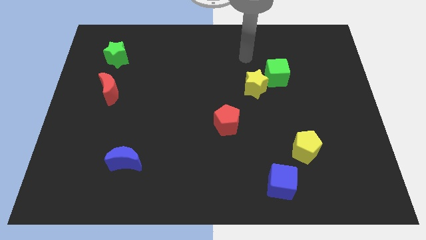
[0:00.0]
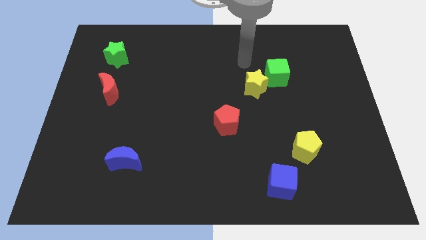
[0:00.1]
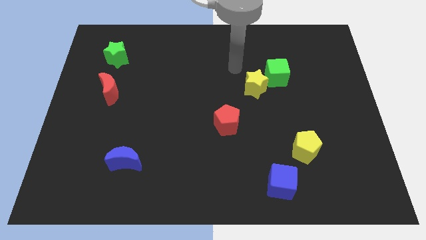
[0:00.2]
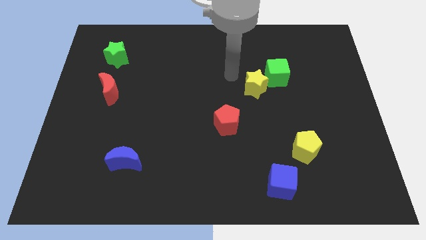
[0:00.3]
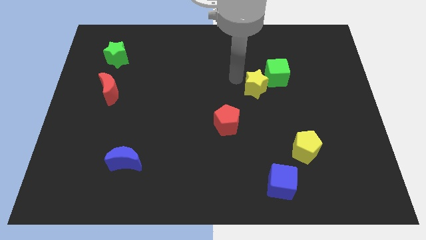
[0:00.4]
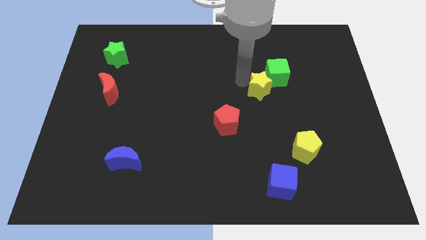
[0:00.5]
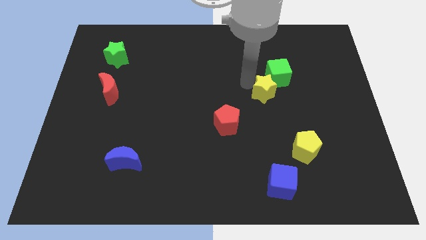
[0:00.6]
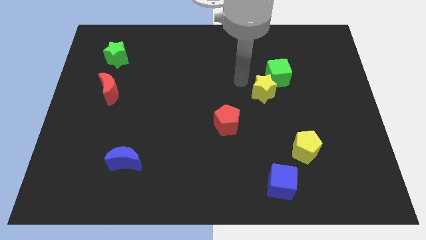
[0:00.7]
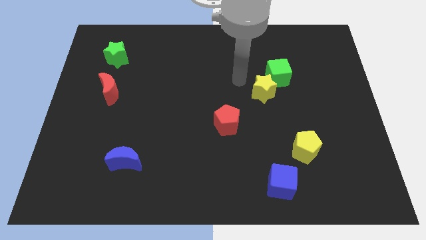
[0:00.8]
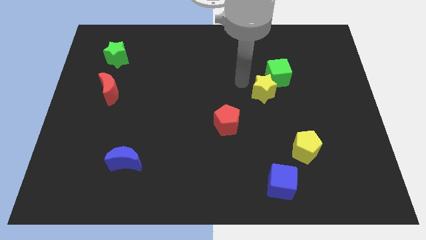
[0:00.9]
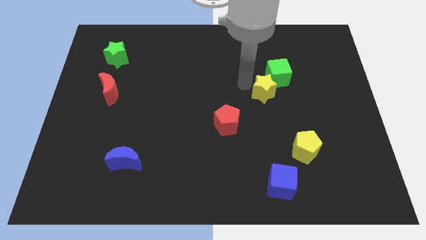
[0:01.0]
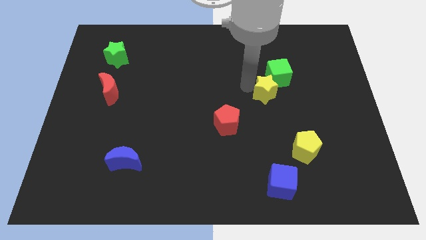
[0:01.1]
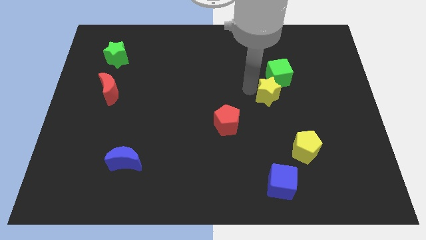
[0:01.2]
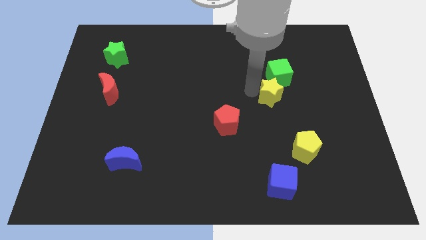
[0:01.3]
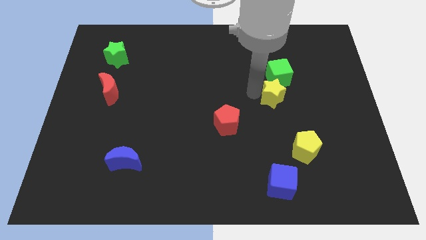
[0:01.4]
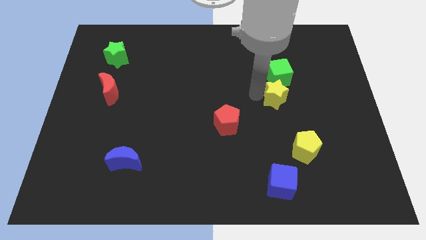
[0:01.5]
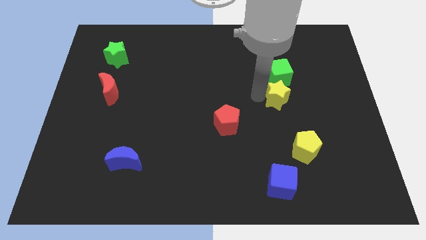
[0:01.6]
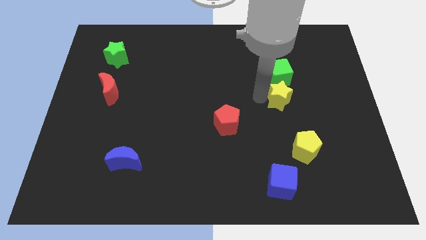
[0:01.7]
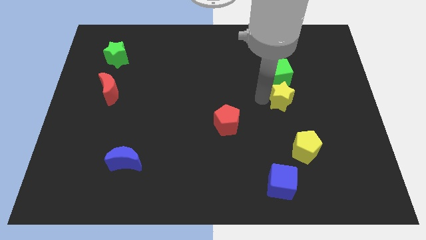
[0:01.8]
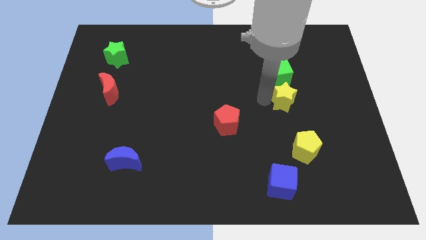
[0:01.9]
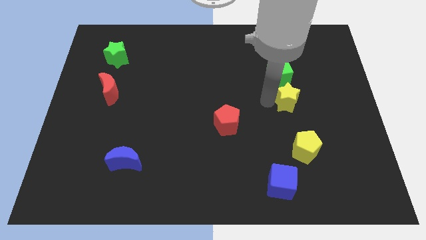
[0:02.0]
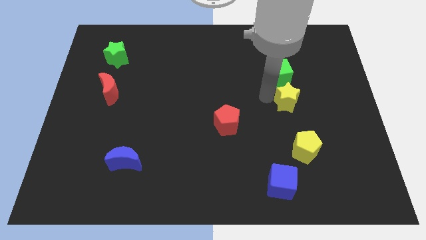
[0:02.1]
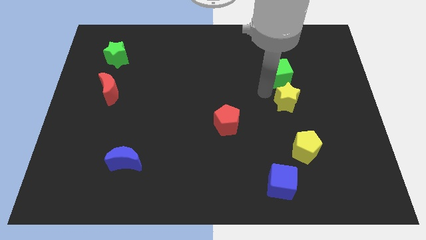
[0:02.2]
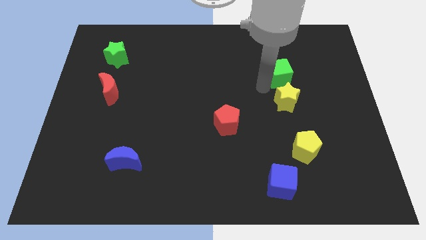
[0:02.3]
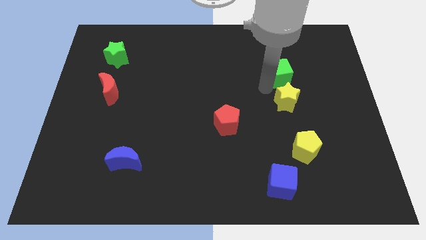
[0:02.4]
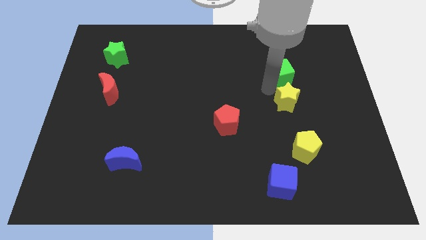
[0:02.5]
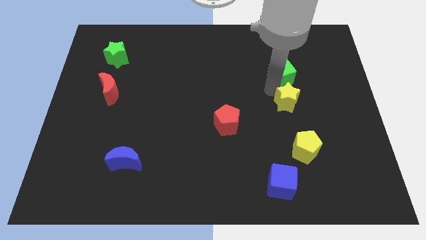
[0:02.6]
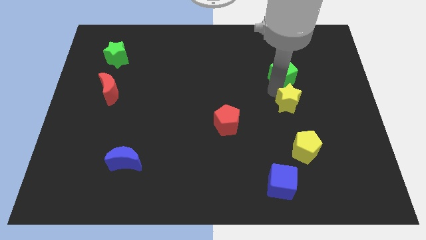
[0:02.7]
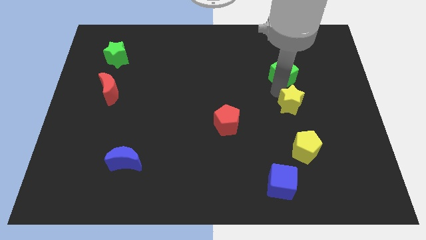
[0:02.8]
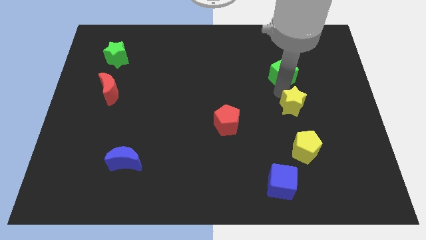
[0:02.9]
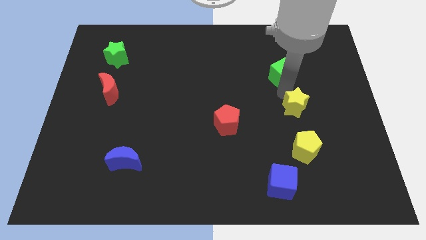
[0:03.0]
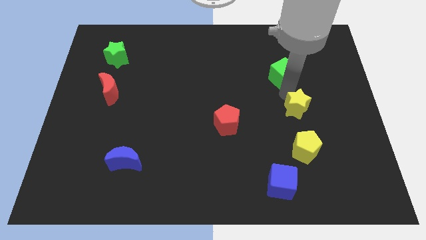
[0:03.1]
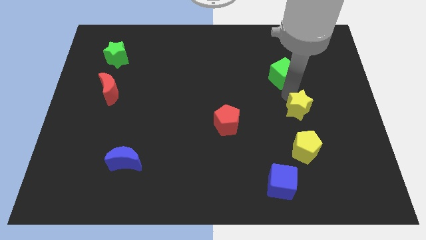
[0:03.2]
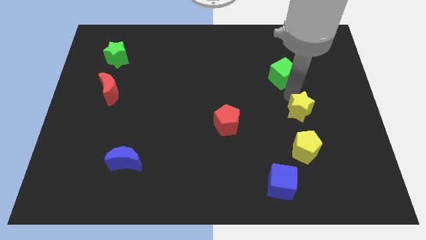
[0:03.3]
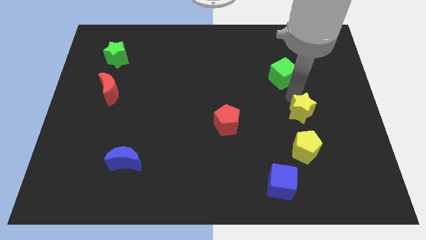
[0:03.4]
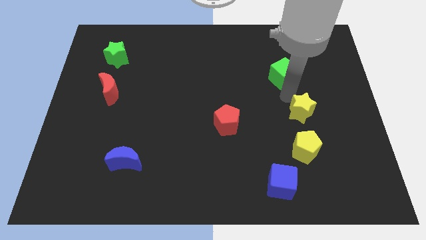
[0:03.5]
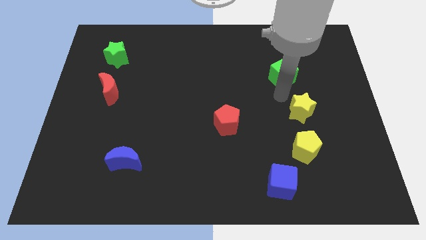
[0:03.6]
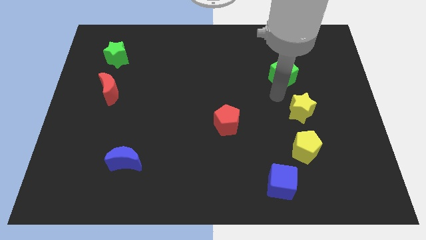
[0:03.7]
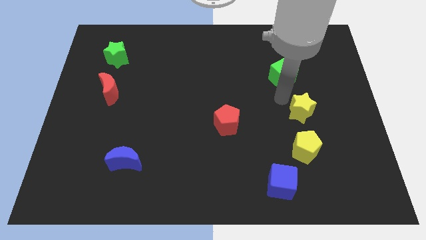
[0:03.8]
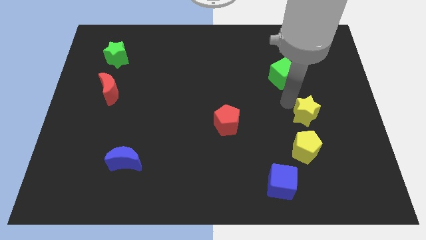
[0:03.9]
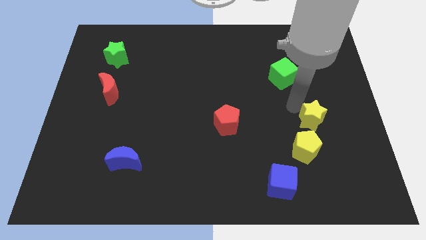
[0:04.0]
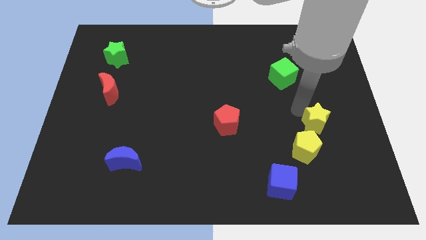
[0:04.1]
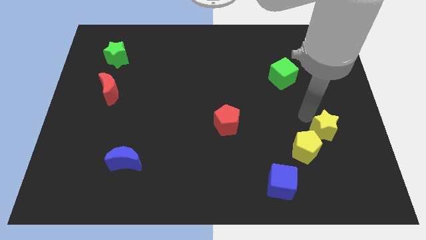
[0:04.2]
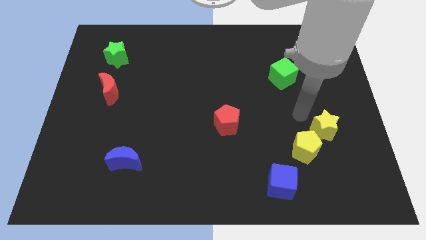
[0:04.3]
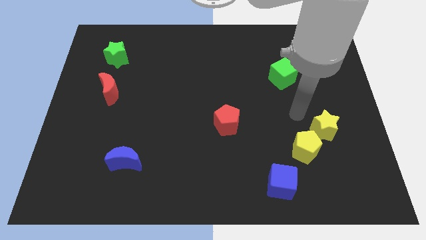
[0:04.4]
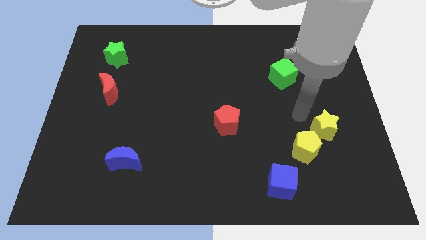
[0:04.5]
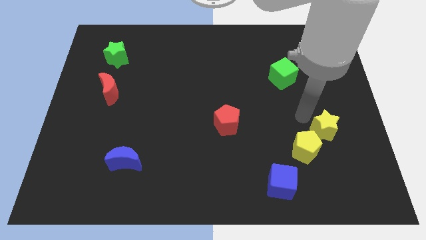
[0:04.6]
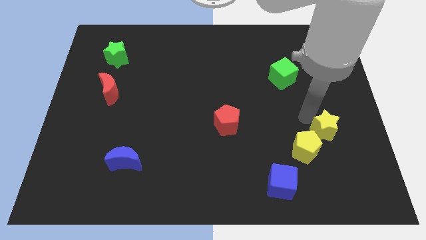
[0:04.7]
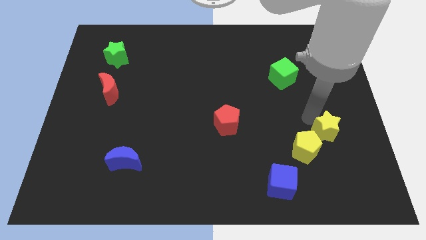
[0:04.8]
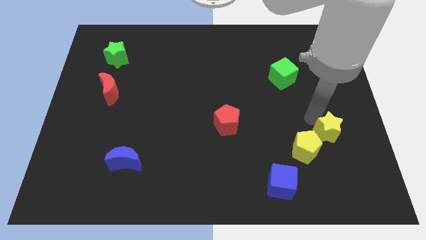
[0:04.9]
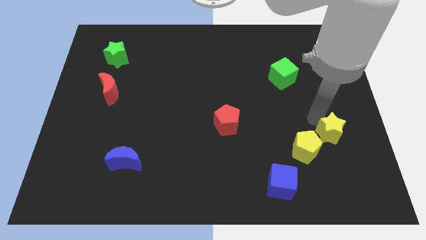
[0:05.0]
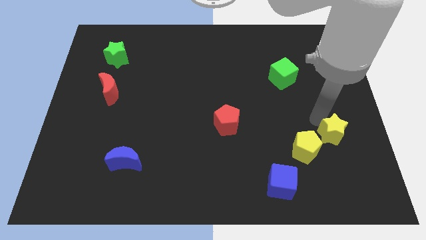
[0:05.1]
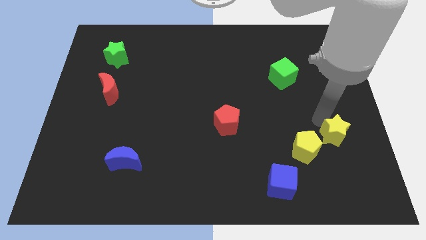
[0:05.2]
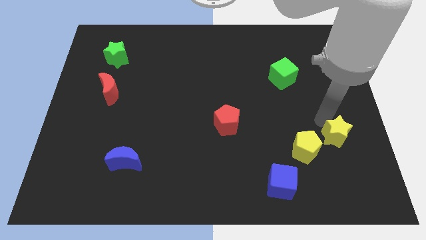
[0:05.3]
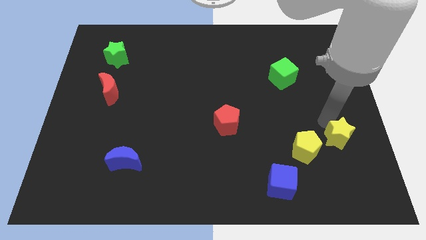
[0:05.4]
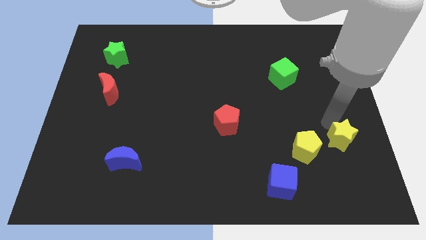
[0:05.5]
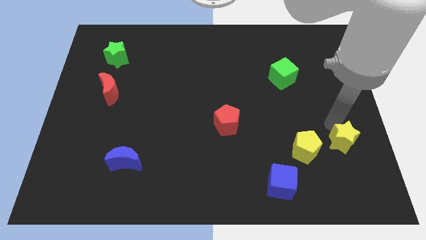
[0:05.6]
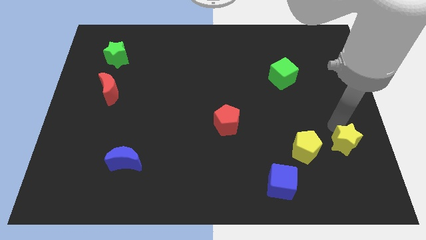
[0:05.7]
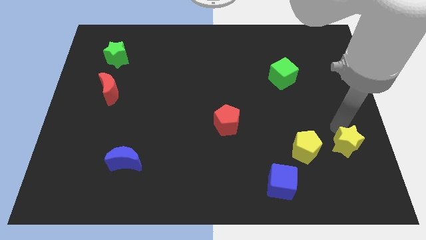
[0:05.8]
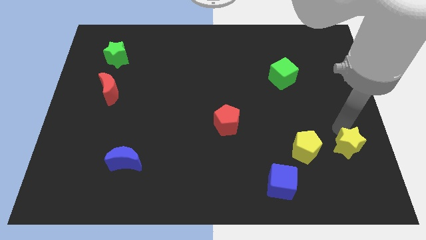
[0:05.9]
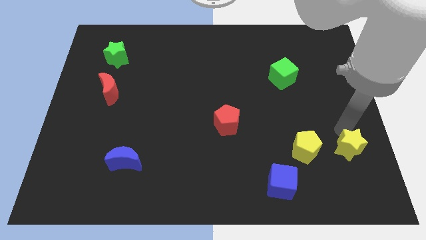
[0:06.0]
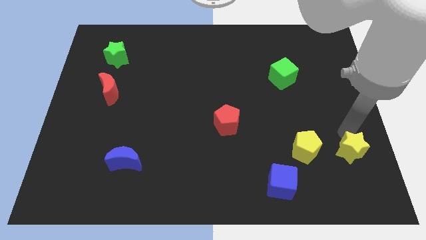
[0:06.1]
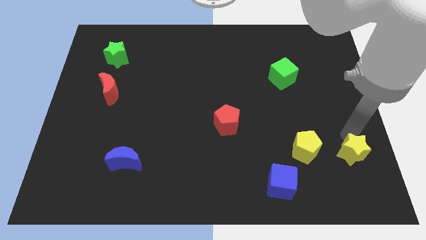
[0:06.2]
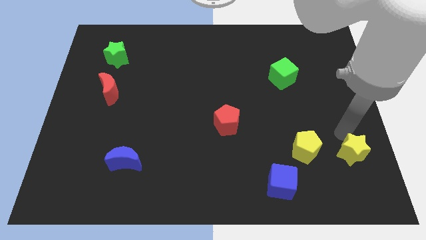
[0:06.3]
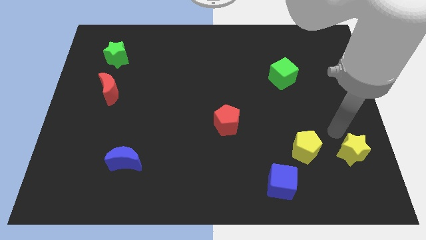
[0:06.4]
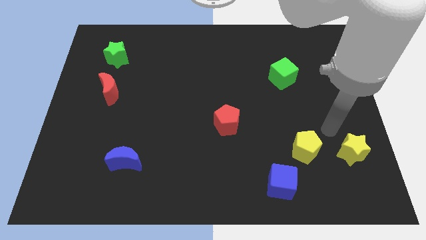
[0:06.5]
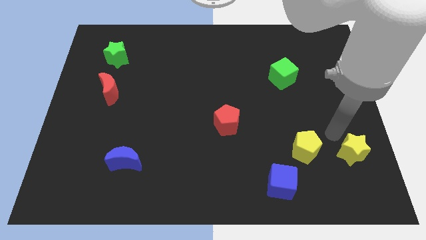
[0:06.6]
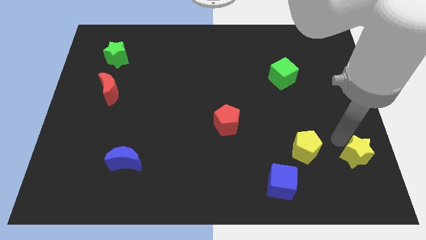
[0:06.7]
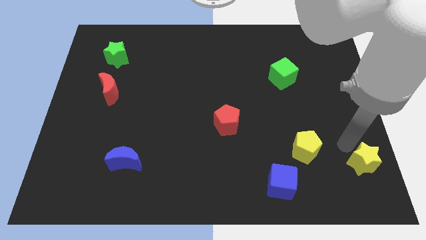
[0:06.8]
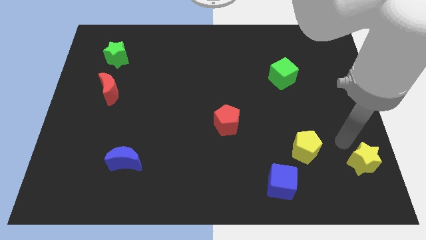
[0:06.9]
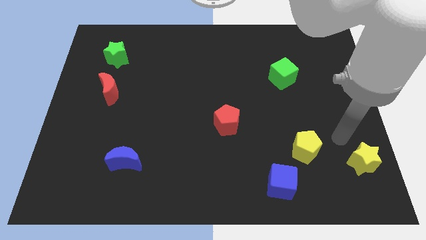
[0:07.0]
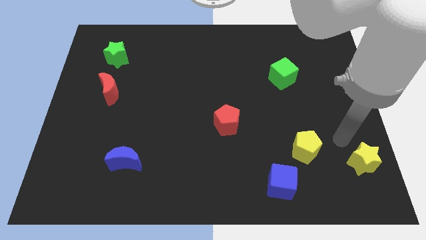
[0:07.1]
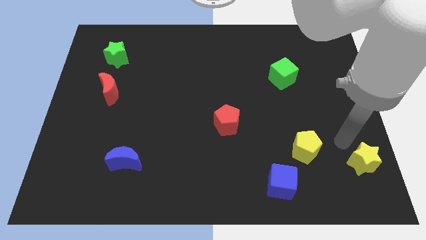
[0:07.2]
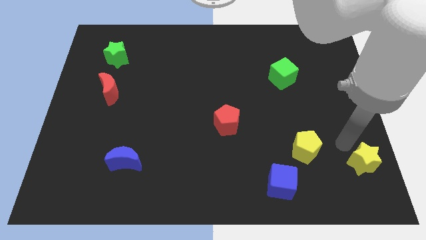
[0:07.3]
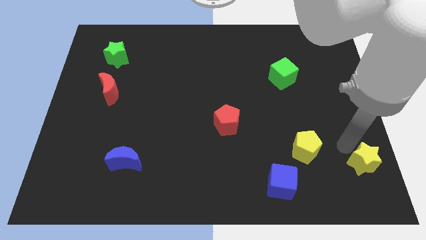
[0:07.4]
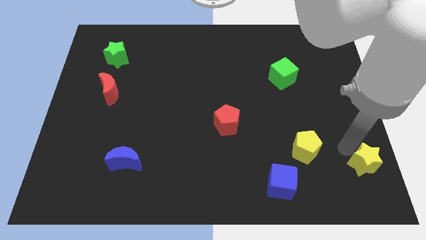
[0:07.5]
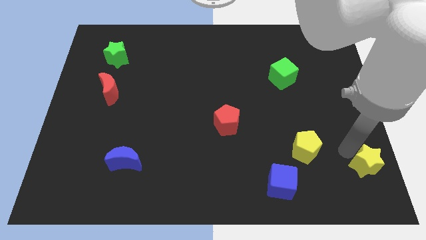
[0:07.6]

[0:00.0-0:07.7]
move the yellow star to the lower right corner
